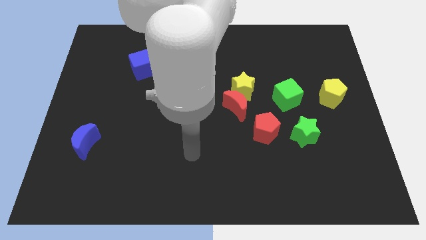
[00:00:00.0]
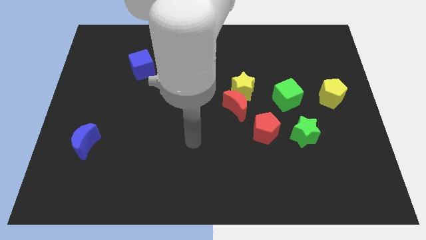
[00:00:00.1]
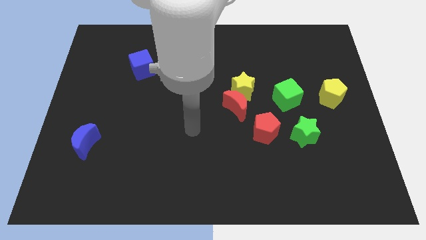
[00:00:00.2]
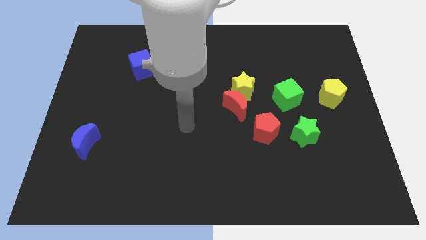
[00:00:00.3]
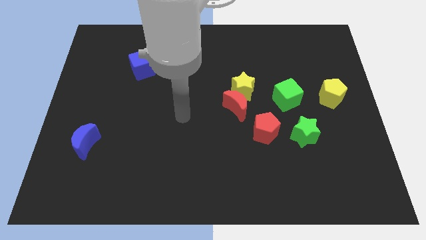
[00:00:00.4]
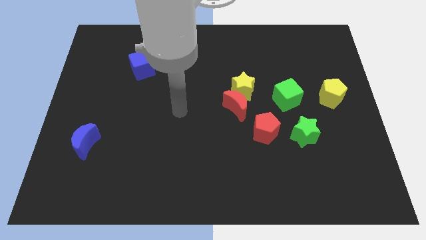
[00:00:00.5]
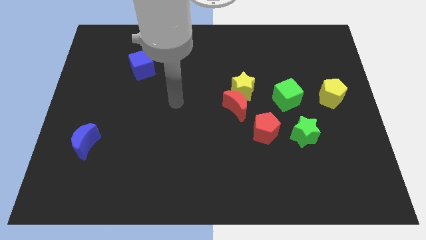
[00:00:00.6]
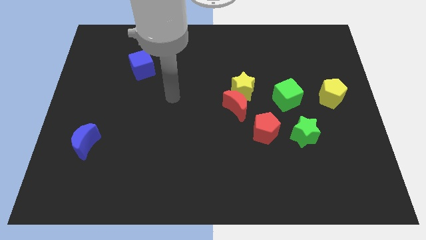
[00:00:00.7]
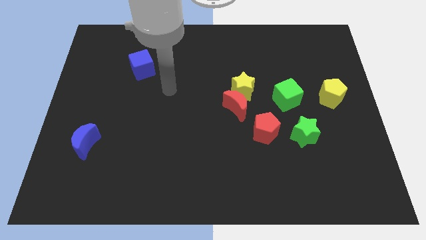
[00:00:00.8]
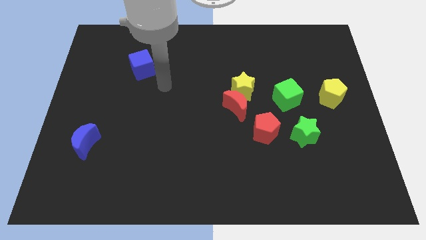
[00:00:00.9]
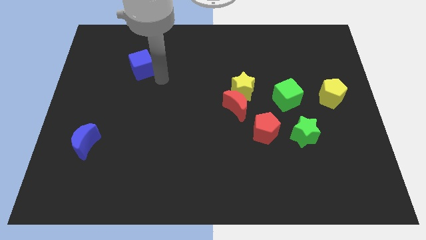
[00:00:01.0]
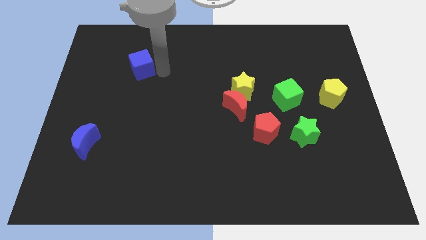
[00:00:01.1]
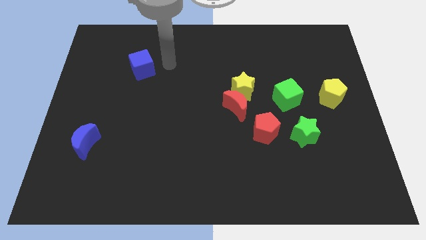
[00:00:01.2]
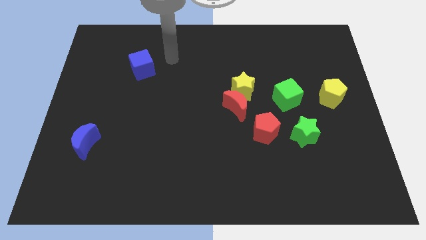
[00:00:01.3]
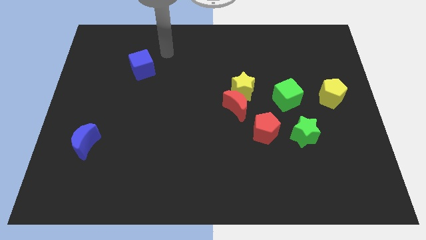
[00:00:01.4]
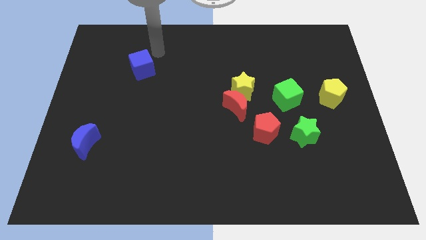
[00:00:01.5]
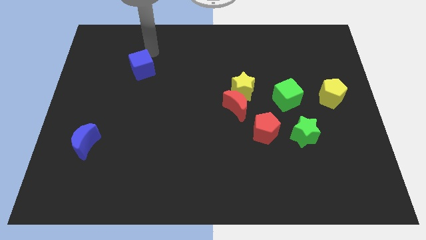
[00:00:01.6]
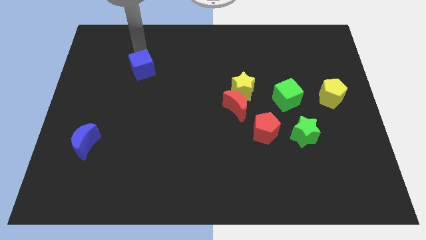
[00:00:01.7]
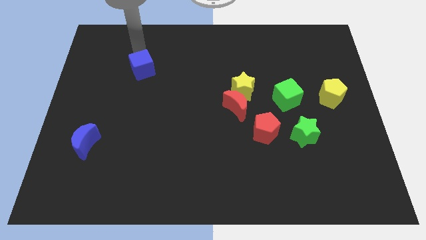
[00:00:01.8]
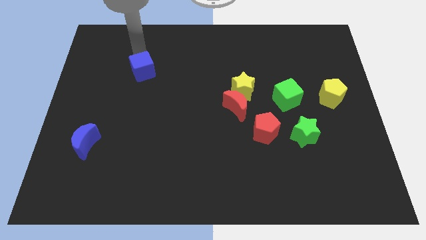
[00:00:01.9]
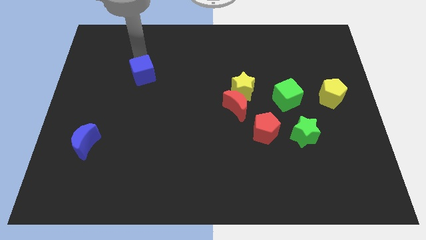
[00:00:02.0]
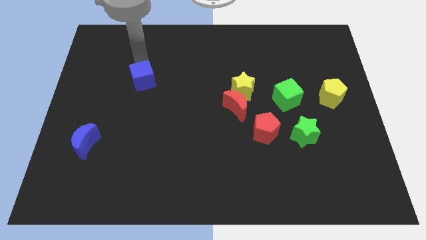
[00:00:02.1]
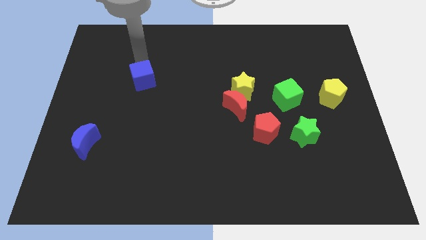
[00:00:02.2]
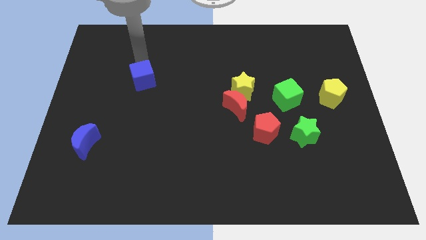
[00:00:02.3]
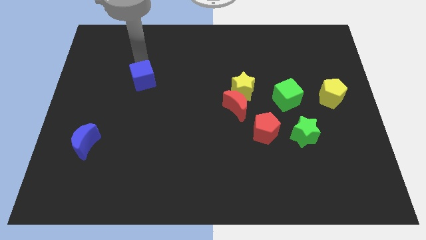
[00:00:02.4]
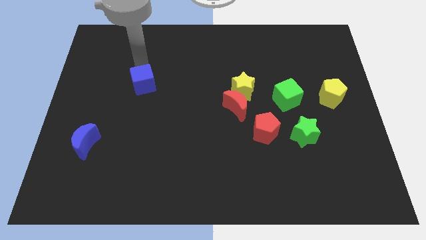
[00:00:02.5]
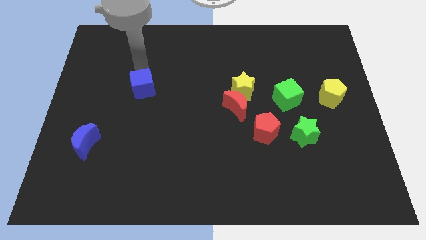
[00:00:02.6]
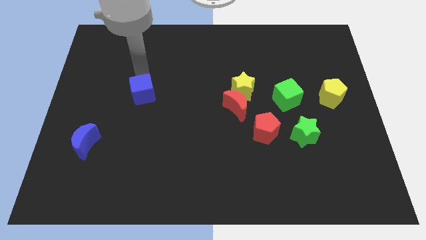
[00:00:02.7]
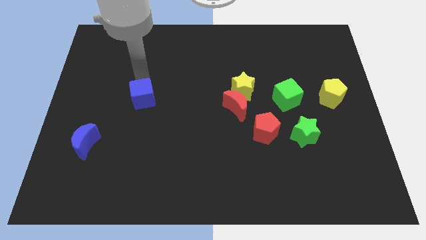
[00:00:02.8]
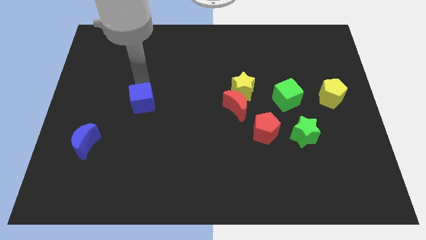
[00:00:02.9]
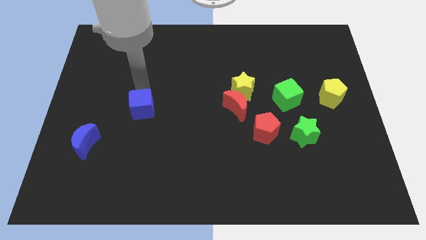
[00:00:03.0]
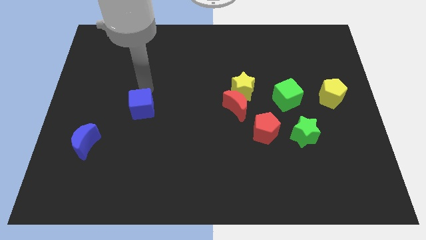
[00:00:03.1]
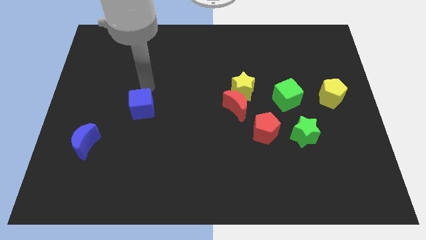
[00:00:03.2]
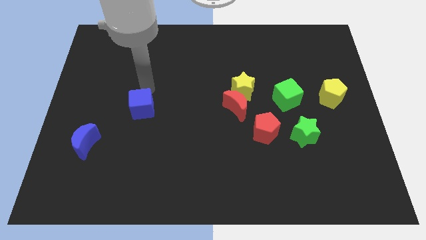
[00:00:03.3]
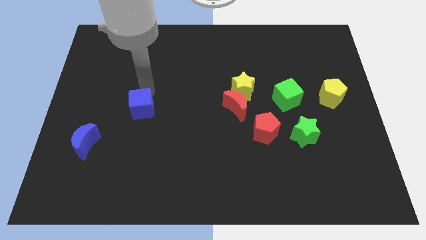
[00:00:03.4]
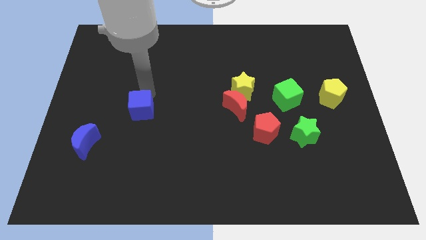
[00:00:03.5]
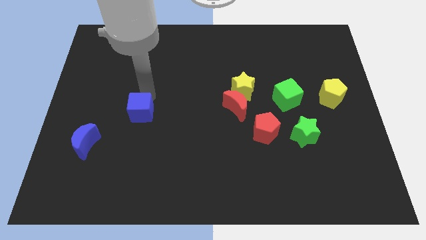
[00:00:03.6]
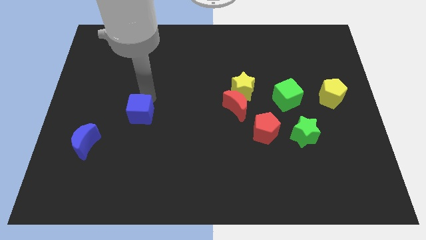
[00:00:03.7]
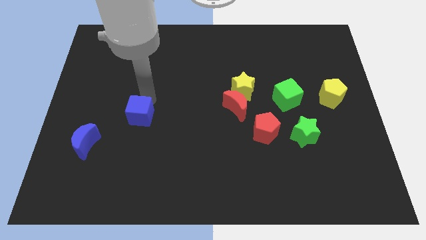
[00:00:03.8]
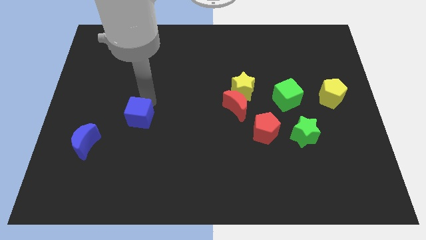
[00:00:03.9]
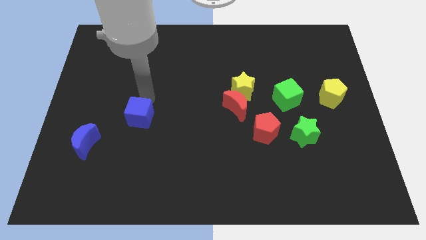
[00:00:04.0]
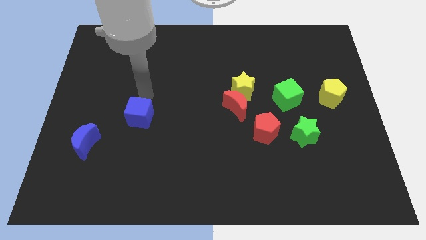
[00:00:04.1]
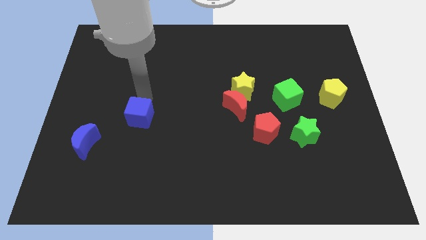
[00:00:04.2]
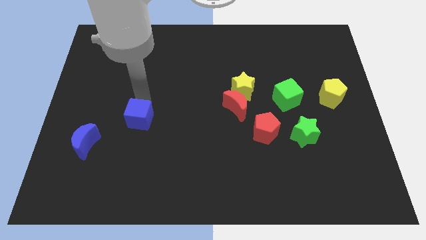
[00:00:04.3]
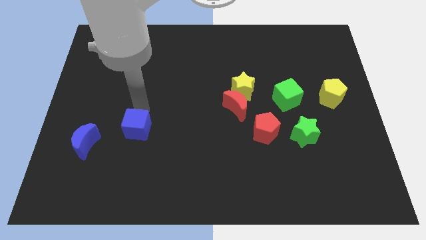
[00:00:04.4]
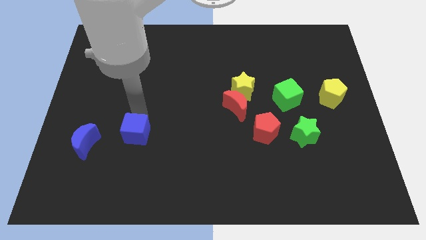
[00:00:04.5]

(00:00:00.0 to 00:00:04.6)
move the blue cube down

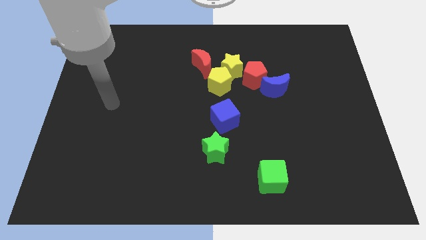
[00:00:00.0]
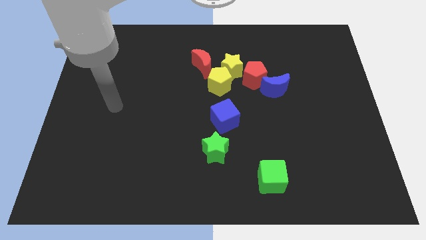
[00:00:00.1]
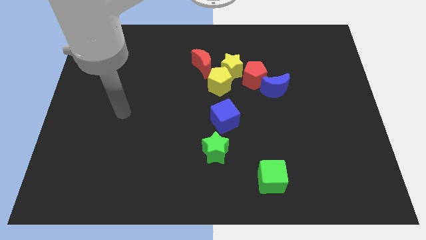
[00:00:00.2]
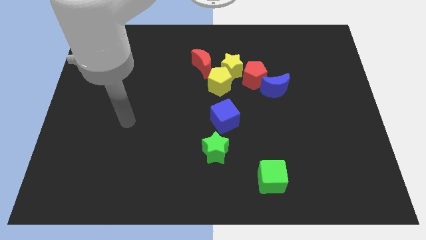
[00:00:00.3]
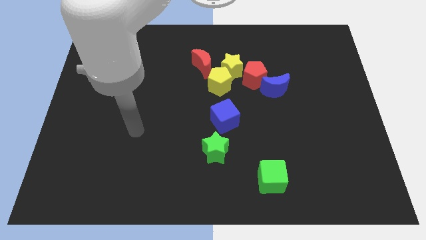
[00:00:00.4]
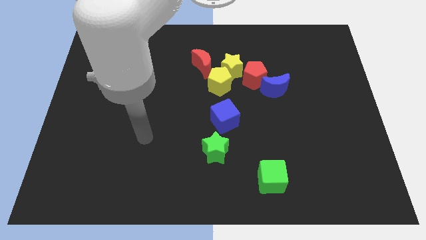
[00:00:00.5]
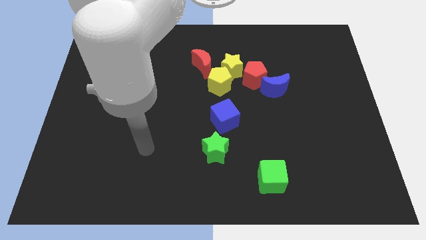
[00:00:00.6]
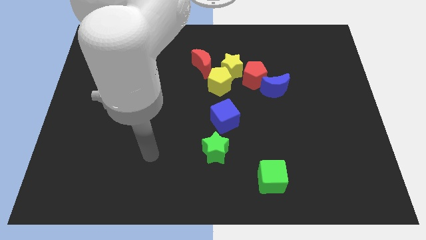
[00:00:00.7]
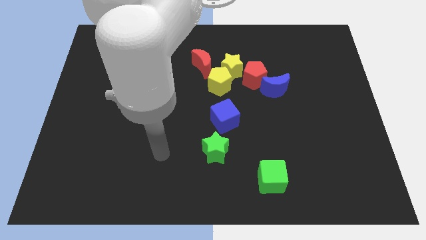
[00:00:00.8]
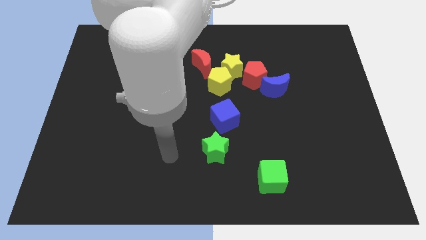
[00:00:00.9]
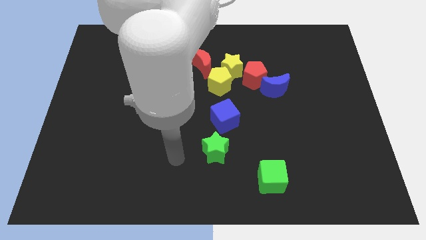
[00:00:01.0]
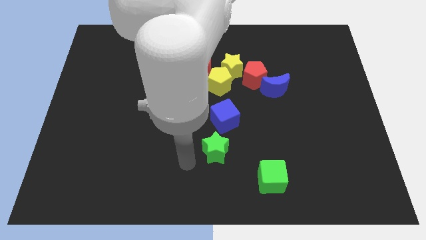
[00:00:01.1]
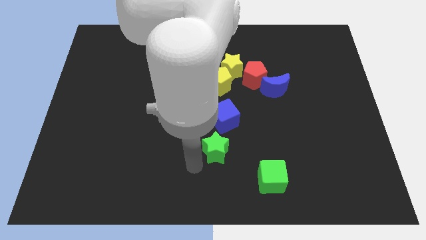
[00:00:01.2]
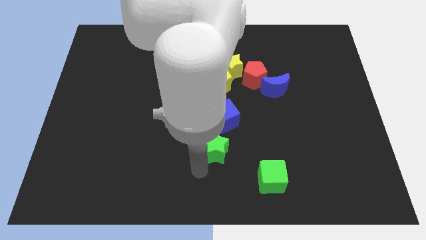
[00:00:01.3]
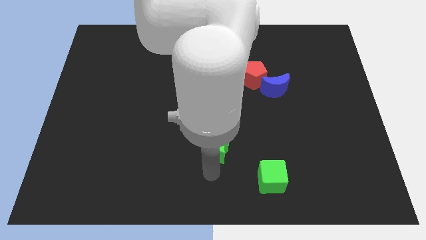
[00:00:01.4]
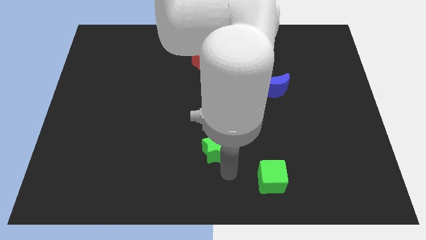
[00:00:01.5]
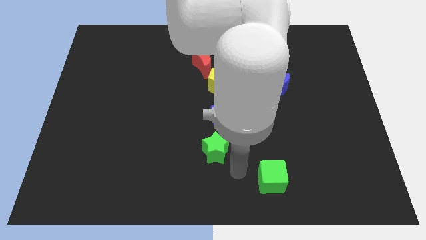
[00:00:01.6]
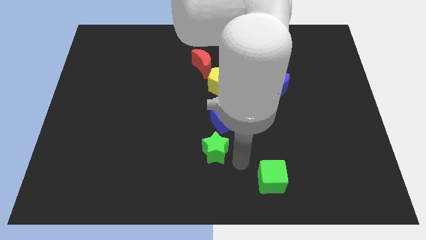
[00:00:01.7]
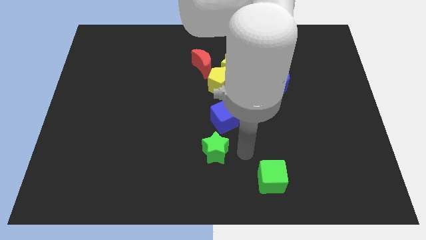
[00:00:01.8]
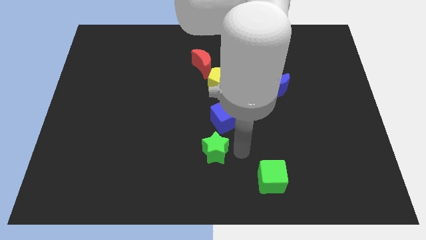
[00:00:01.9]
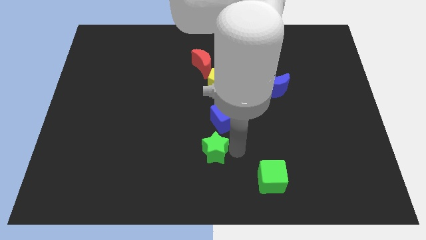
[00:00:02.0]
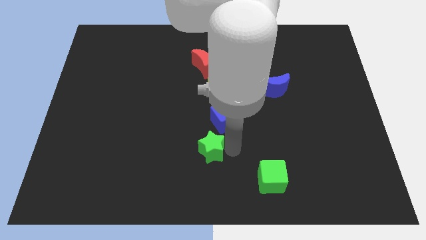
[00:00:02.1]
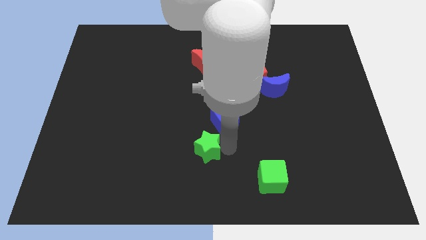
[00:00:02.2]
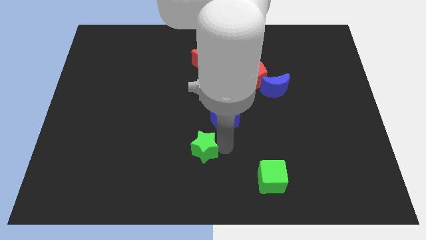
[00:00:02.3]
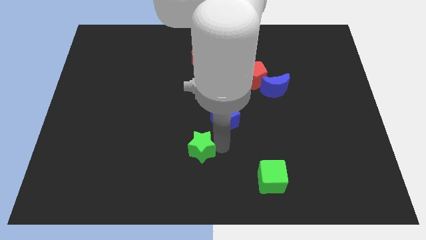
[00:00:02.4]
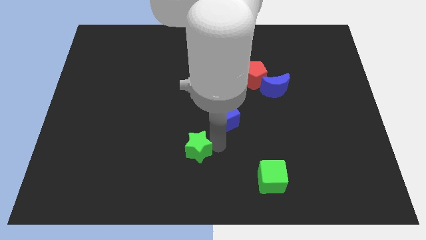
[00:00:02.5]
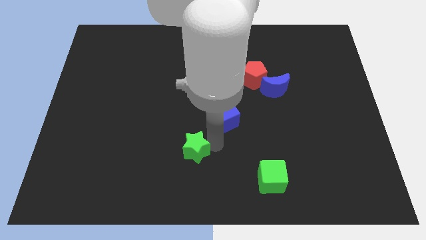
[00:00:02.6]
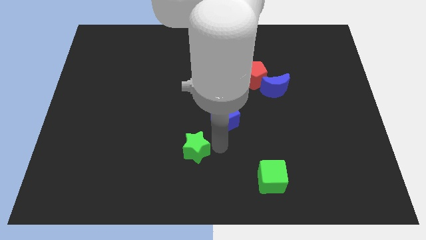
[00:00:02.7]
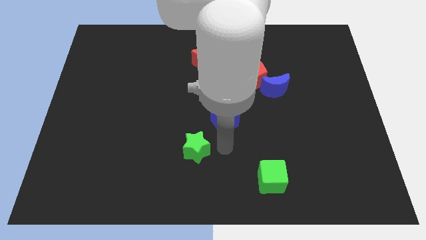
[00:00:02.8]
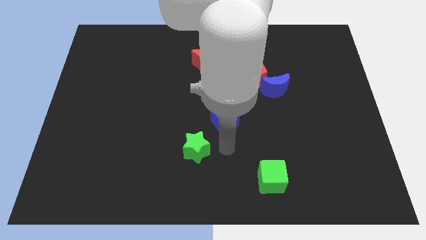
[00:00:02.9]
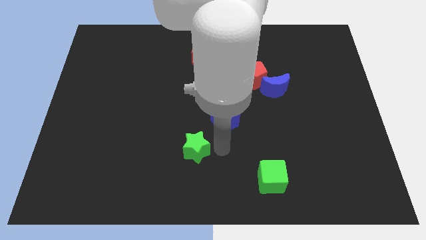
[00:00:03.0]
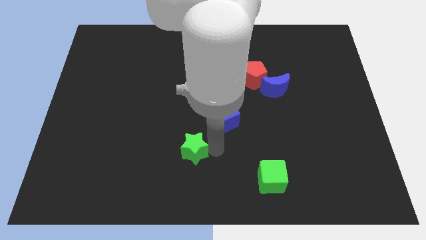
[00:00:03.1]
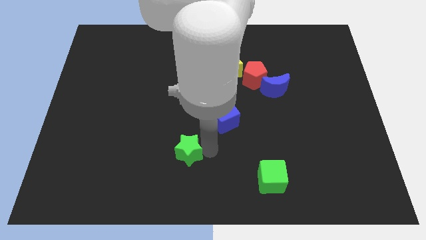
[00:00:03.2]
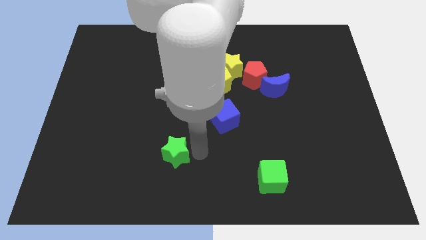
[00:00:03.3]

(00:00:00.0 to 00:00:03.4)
slightly push the green star left
